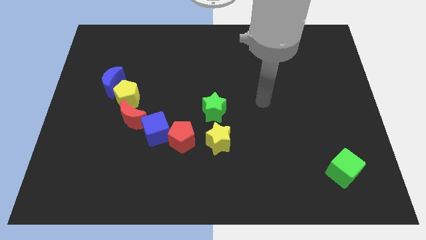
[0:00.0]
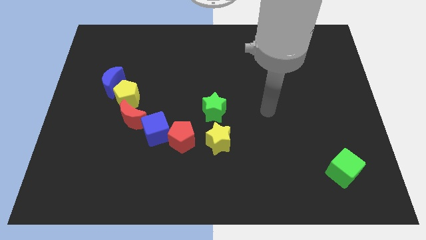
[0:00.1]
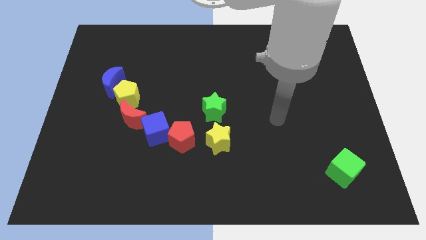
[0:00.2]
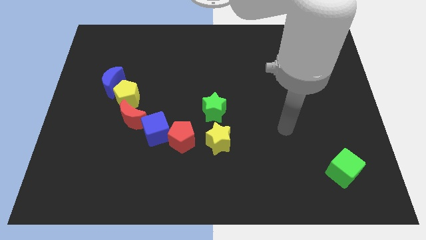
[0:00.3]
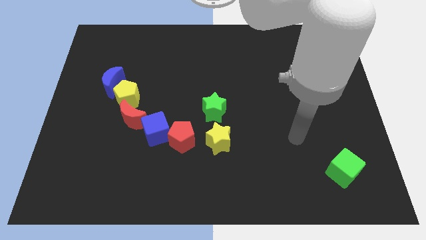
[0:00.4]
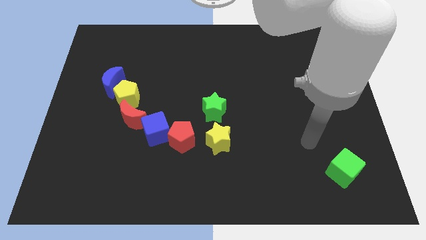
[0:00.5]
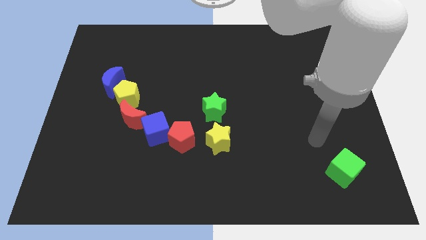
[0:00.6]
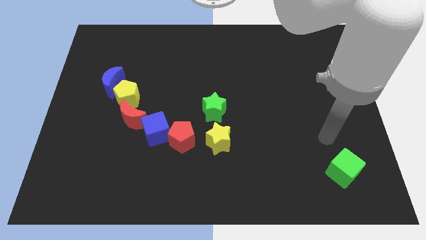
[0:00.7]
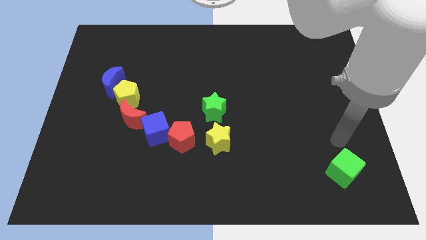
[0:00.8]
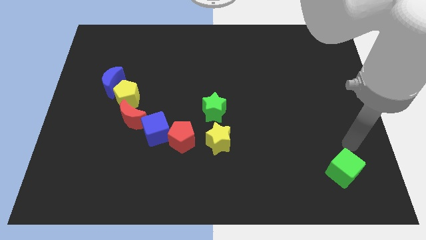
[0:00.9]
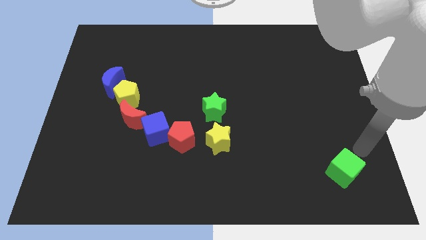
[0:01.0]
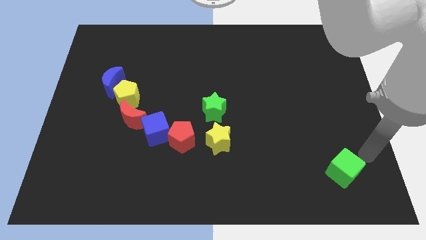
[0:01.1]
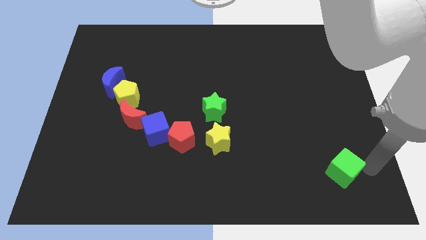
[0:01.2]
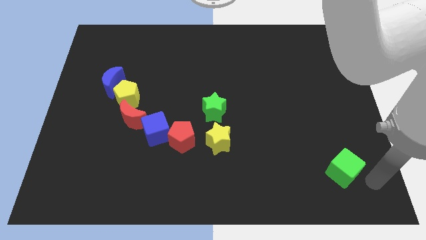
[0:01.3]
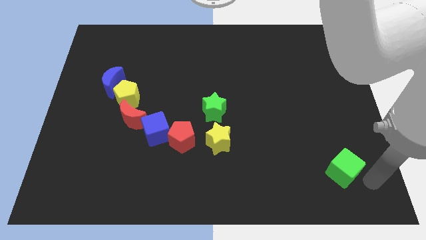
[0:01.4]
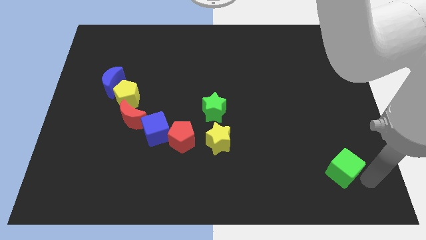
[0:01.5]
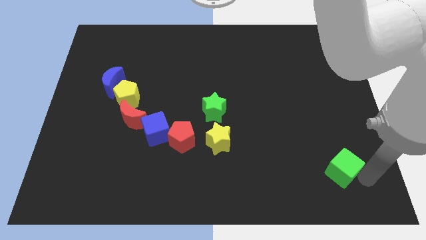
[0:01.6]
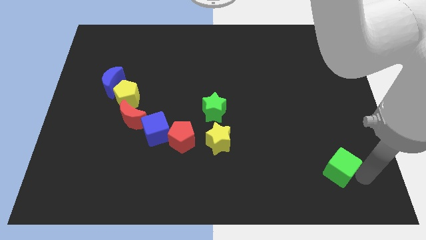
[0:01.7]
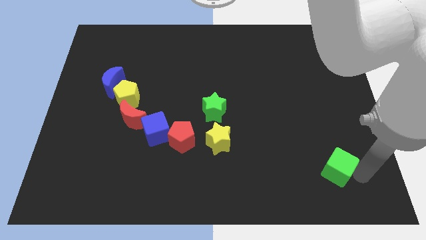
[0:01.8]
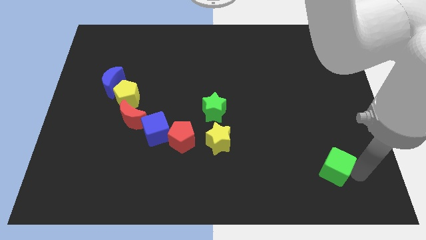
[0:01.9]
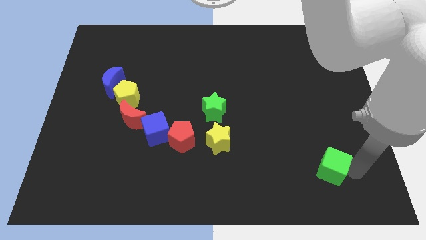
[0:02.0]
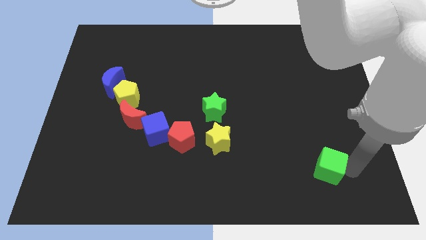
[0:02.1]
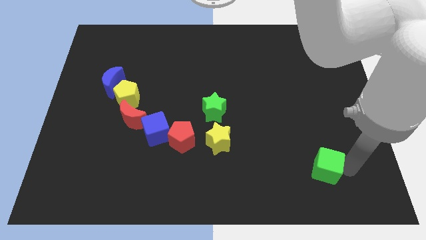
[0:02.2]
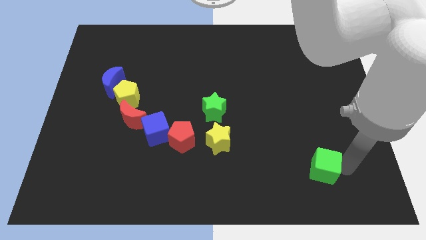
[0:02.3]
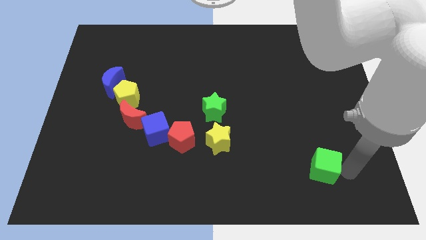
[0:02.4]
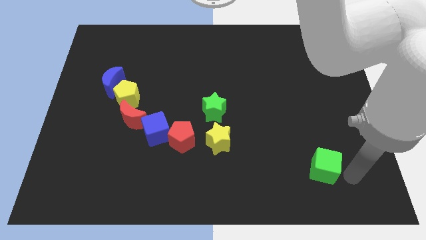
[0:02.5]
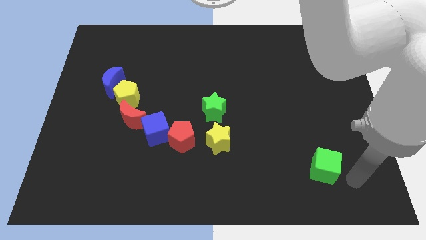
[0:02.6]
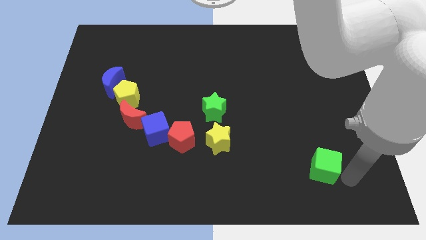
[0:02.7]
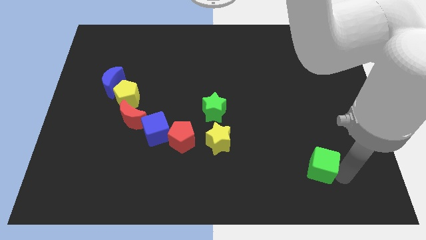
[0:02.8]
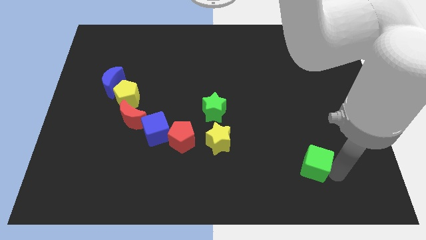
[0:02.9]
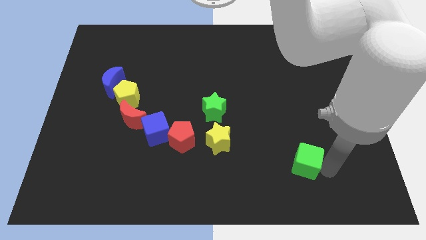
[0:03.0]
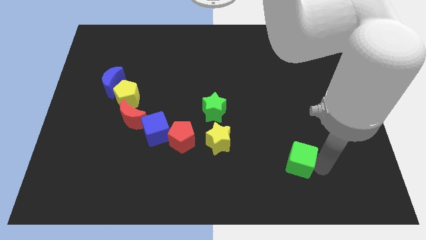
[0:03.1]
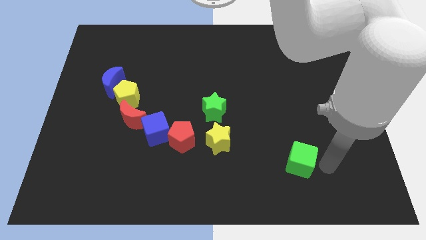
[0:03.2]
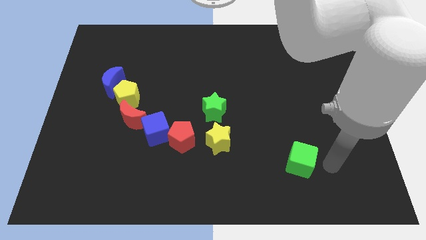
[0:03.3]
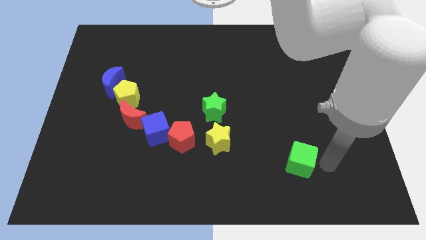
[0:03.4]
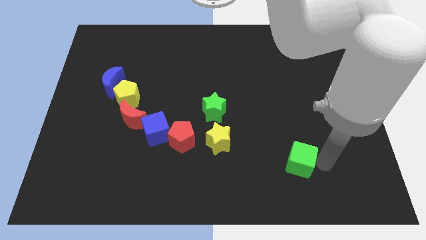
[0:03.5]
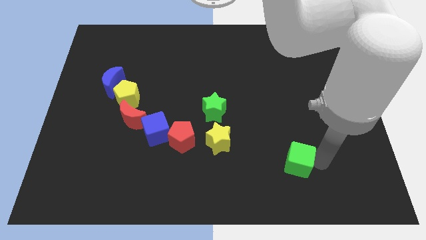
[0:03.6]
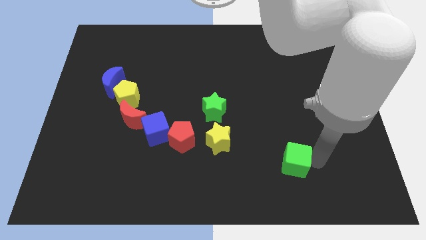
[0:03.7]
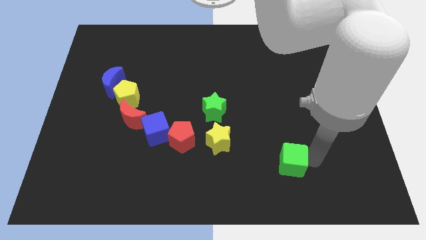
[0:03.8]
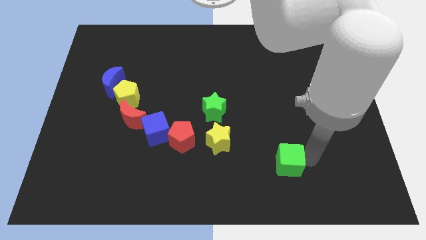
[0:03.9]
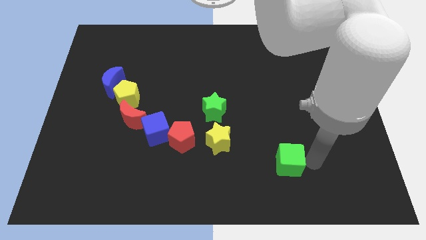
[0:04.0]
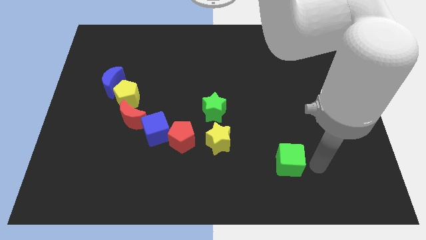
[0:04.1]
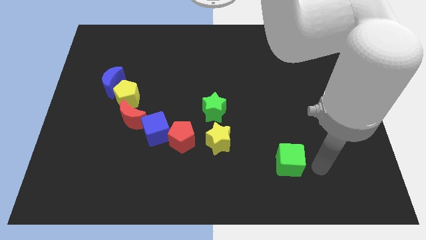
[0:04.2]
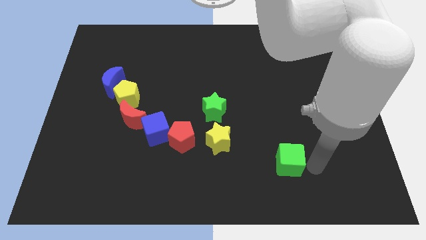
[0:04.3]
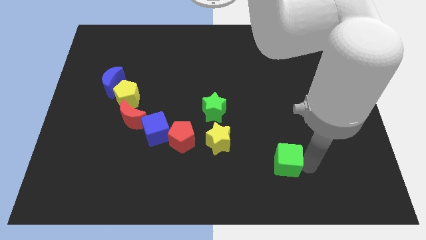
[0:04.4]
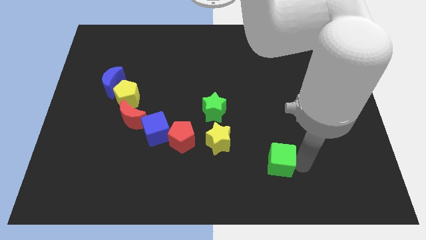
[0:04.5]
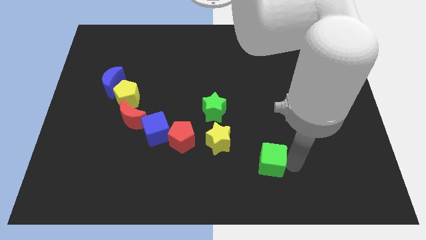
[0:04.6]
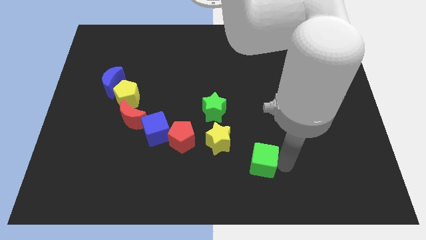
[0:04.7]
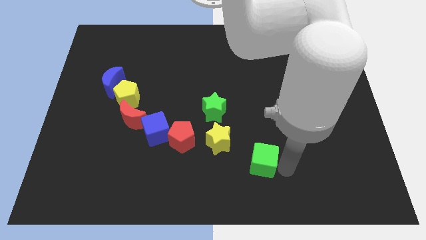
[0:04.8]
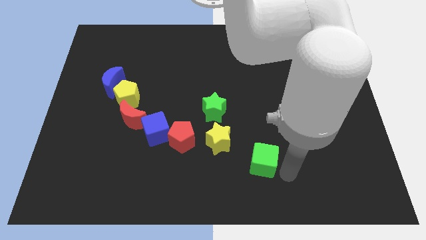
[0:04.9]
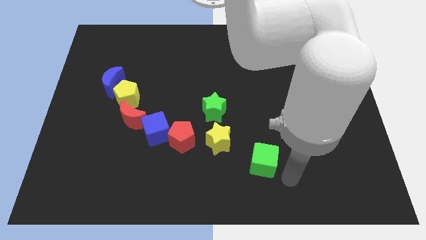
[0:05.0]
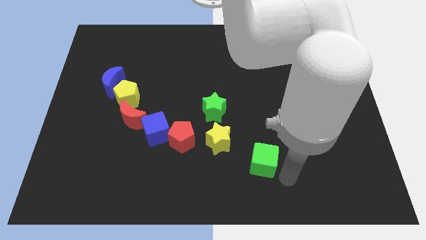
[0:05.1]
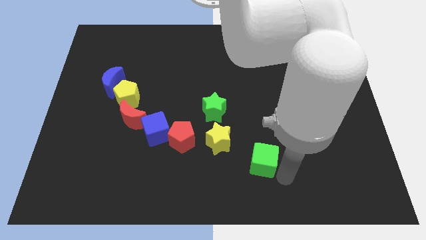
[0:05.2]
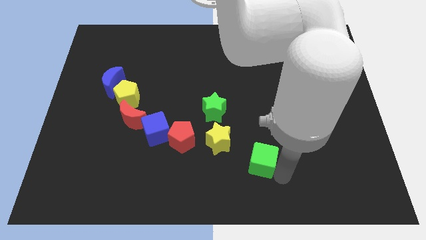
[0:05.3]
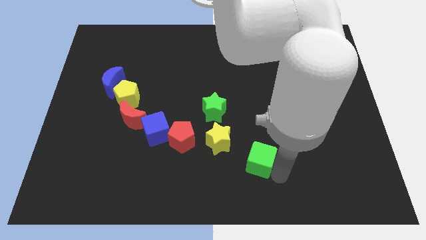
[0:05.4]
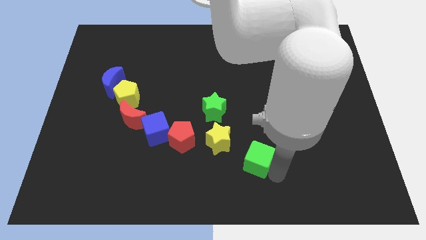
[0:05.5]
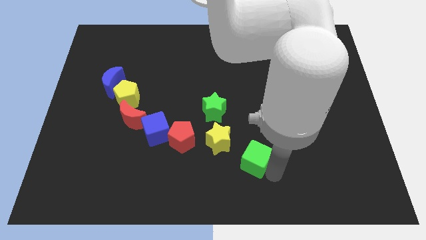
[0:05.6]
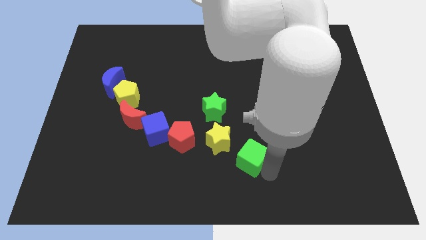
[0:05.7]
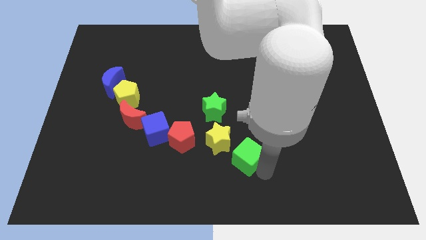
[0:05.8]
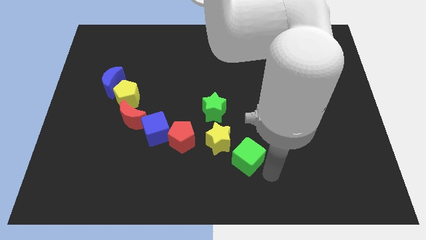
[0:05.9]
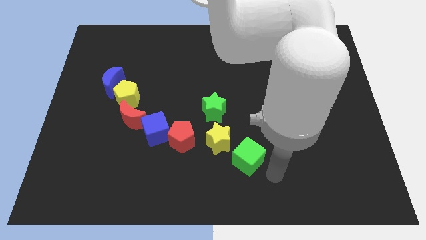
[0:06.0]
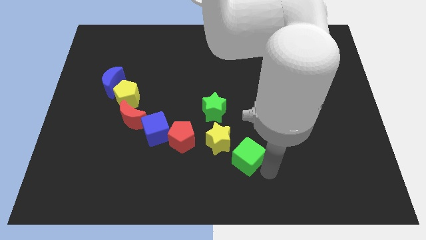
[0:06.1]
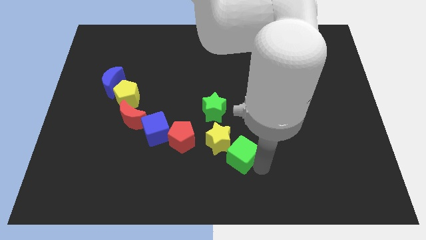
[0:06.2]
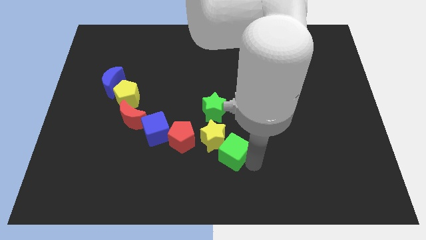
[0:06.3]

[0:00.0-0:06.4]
move the green cube towards the yellow star

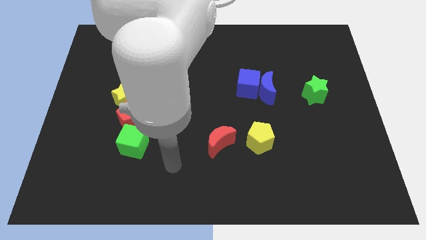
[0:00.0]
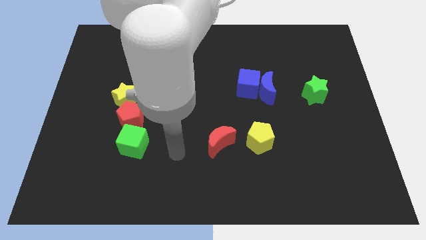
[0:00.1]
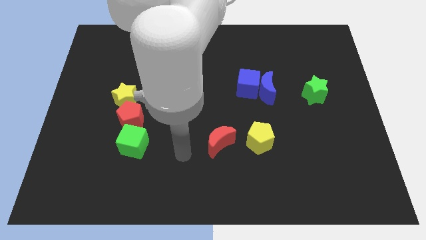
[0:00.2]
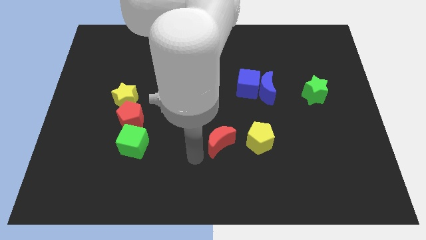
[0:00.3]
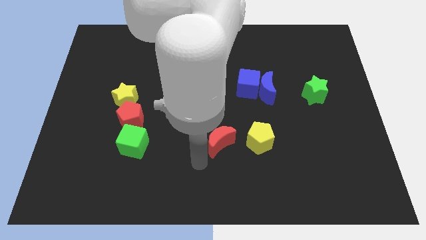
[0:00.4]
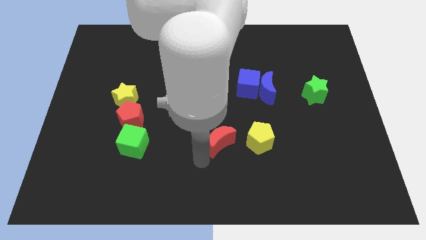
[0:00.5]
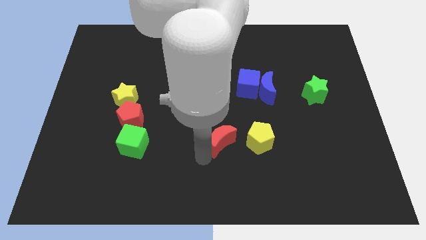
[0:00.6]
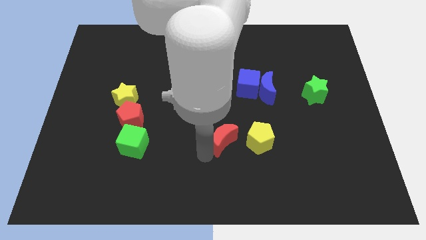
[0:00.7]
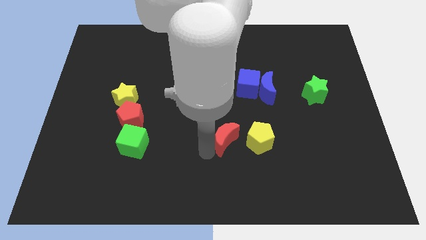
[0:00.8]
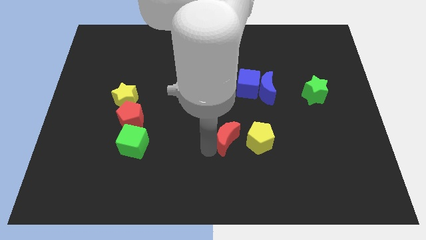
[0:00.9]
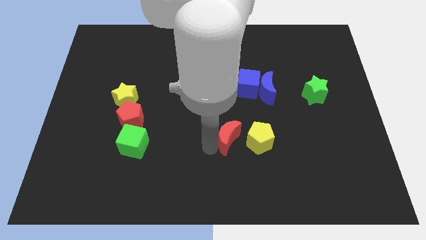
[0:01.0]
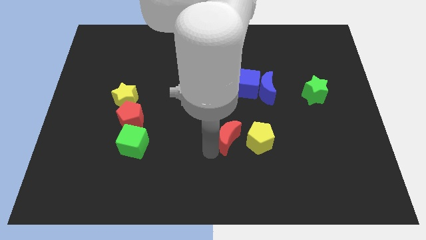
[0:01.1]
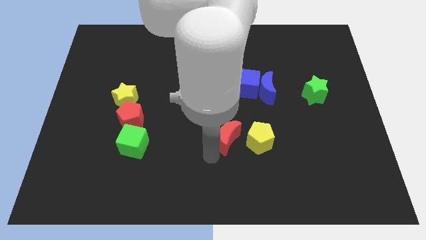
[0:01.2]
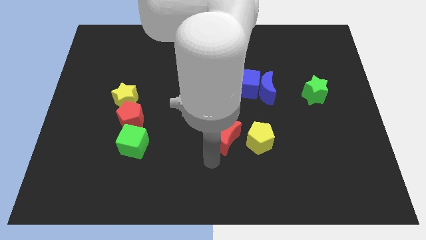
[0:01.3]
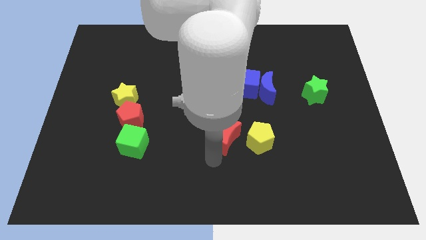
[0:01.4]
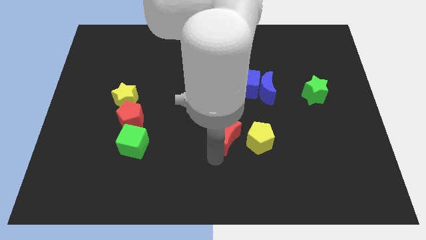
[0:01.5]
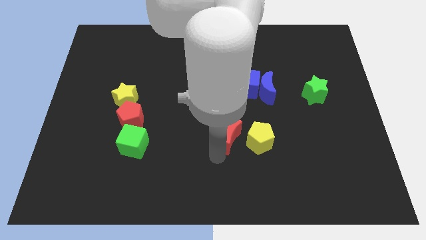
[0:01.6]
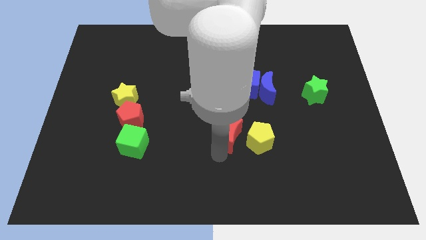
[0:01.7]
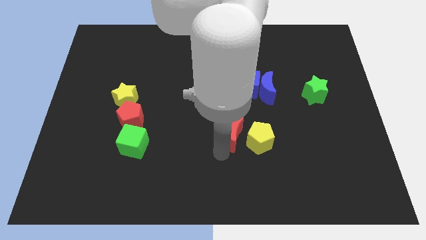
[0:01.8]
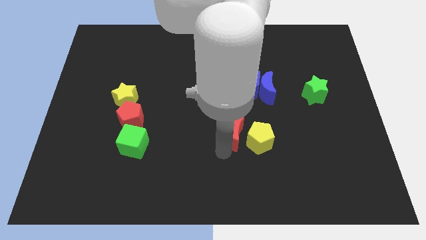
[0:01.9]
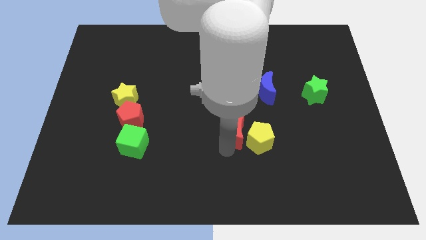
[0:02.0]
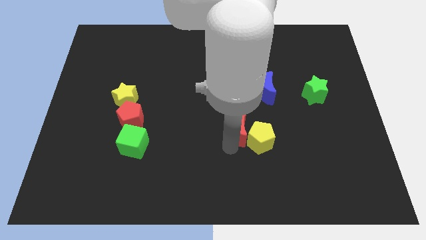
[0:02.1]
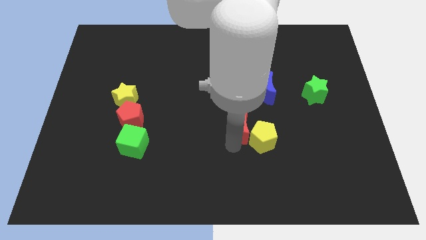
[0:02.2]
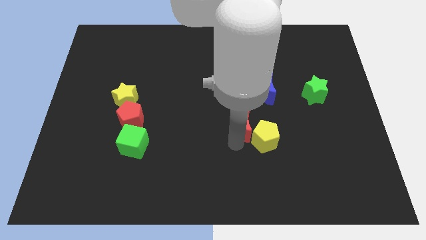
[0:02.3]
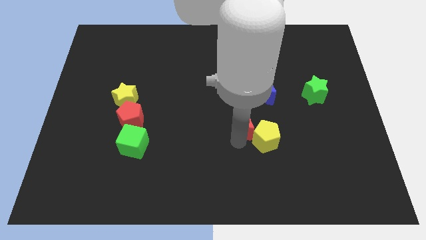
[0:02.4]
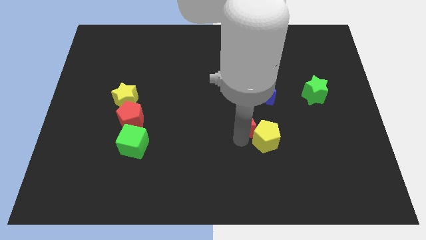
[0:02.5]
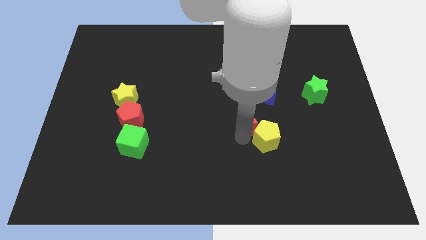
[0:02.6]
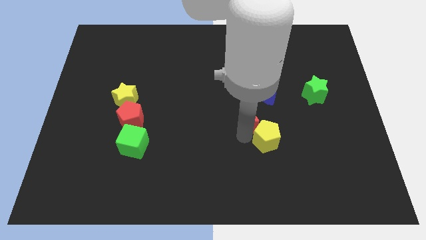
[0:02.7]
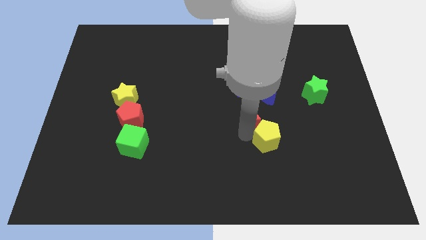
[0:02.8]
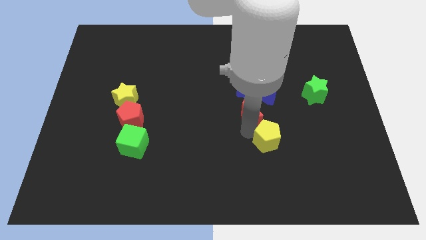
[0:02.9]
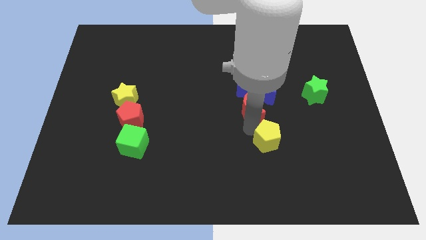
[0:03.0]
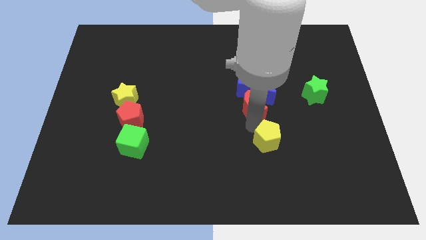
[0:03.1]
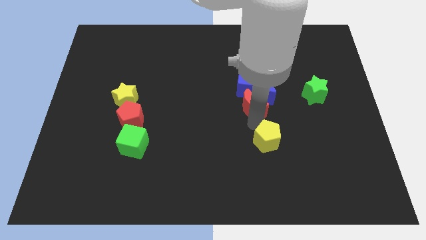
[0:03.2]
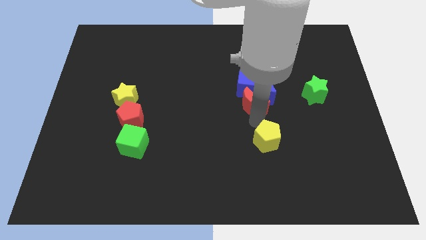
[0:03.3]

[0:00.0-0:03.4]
slide the red moon to the blue moon
